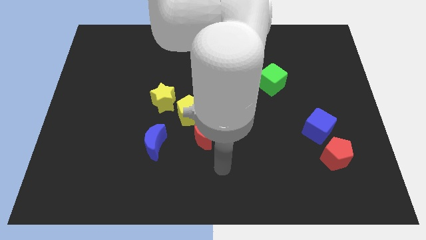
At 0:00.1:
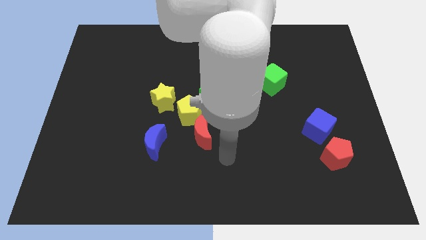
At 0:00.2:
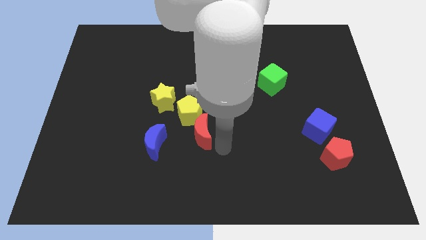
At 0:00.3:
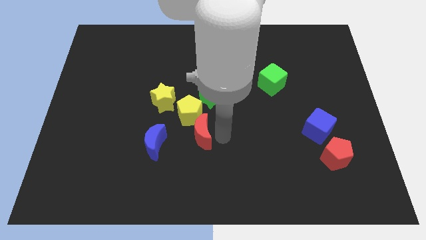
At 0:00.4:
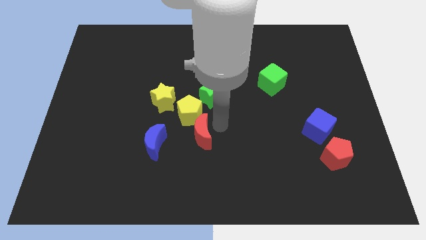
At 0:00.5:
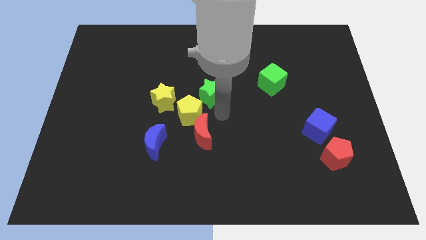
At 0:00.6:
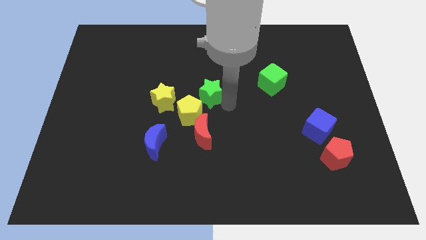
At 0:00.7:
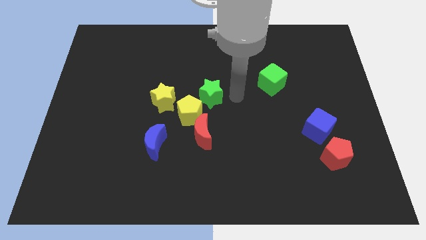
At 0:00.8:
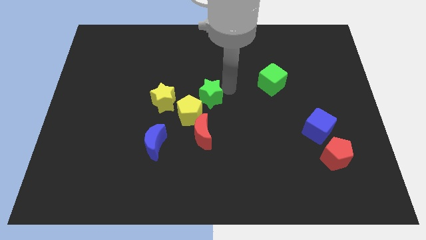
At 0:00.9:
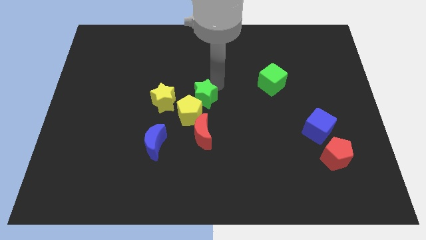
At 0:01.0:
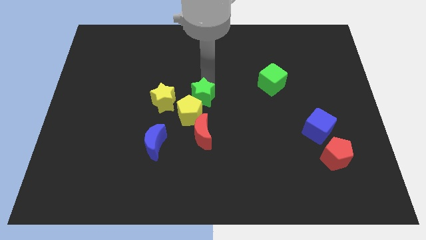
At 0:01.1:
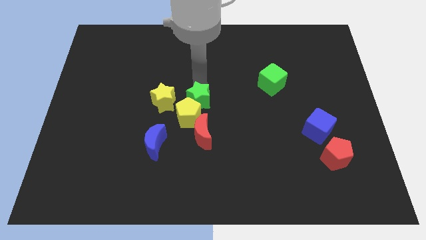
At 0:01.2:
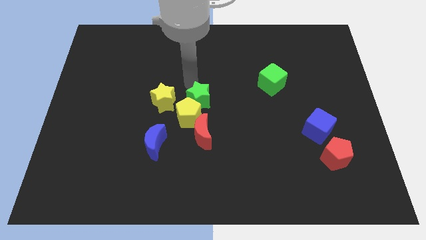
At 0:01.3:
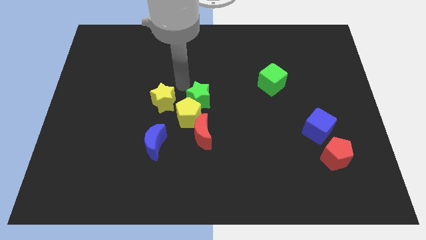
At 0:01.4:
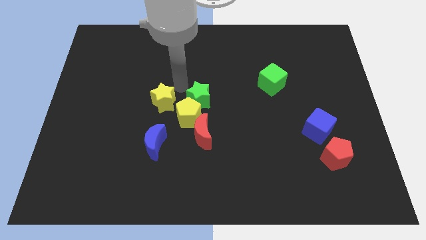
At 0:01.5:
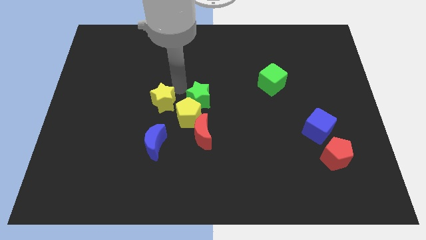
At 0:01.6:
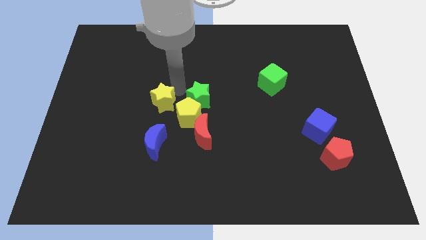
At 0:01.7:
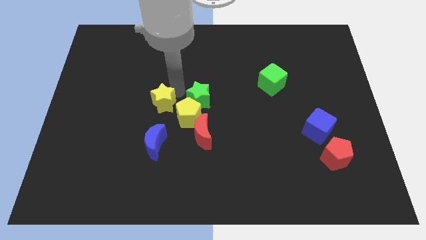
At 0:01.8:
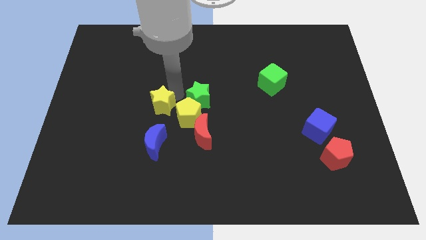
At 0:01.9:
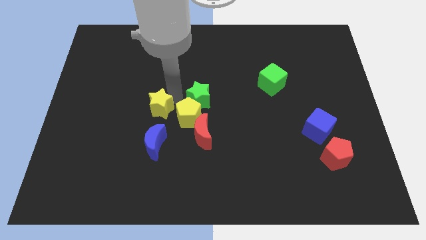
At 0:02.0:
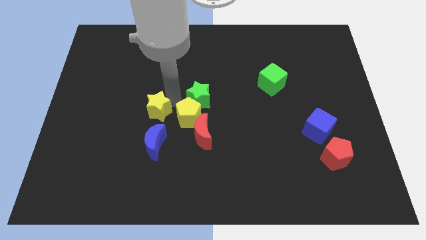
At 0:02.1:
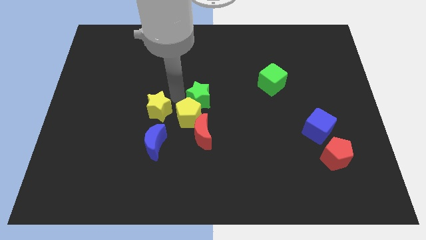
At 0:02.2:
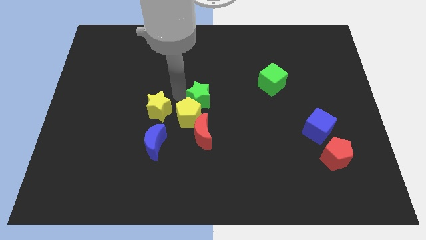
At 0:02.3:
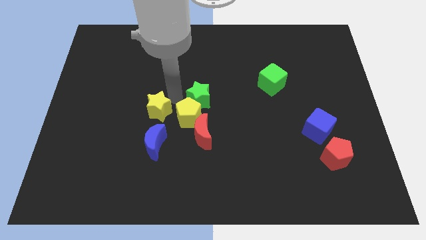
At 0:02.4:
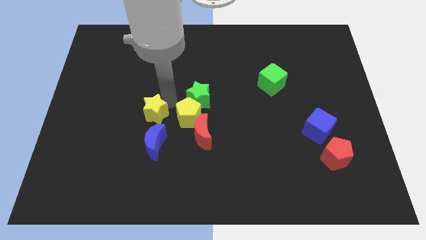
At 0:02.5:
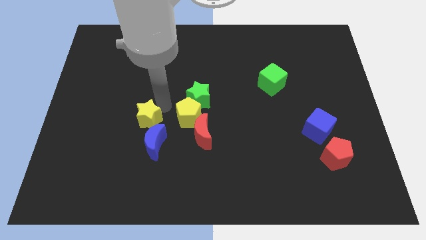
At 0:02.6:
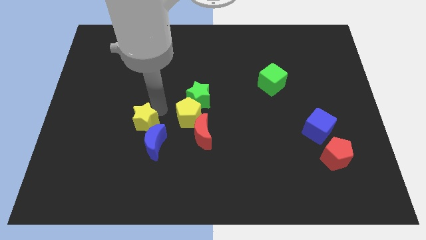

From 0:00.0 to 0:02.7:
slightly slide the yellow star downwards and to the left diagonally

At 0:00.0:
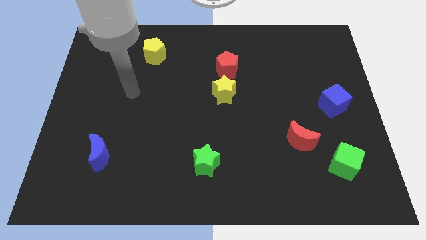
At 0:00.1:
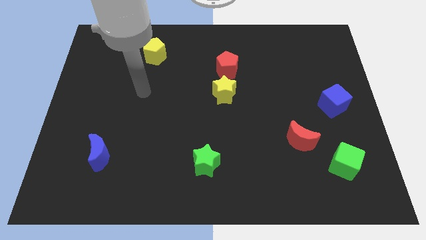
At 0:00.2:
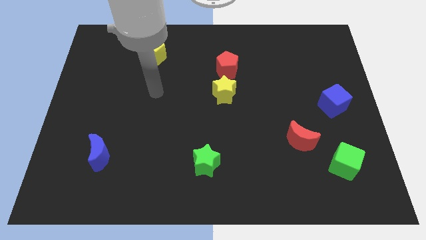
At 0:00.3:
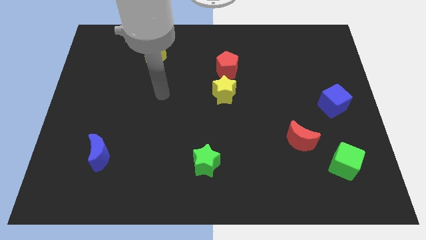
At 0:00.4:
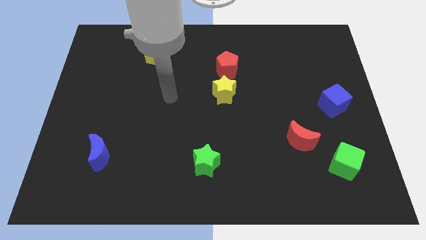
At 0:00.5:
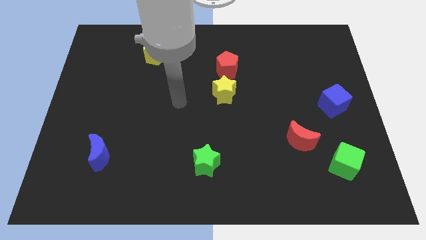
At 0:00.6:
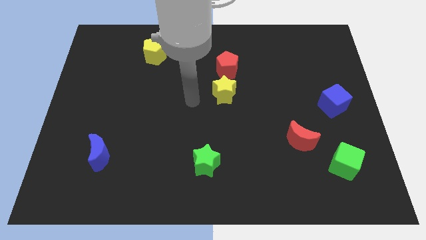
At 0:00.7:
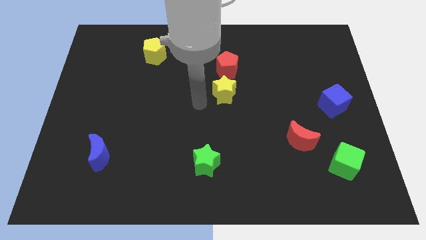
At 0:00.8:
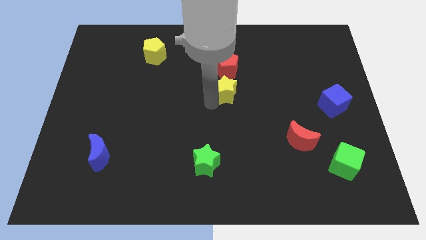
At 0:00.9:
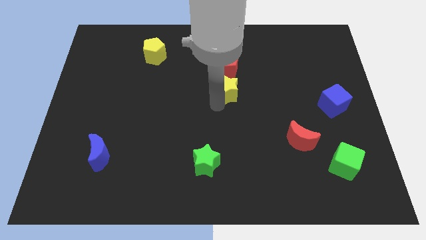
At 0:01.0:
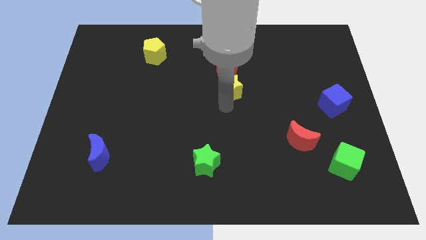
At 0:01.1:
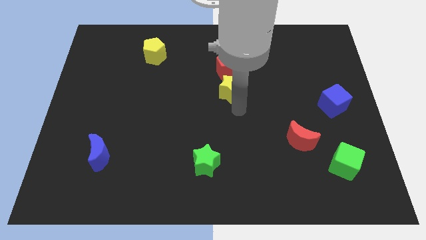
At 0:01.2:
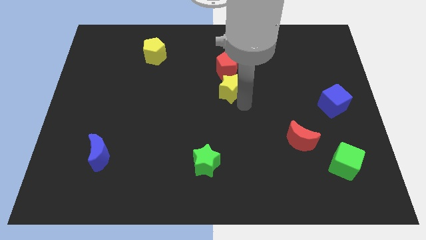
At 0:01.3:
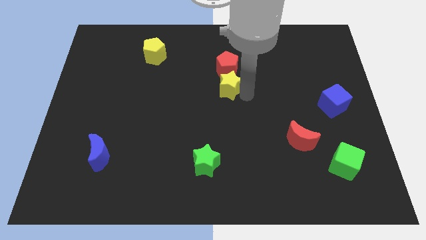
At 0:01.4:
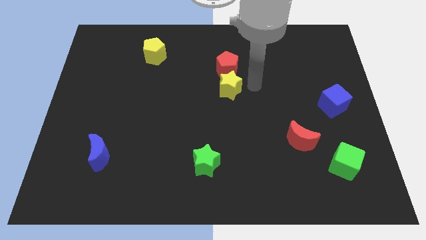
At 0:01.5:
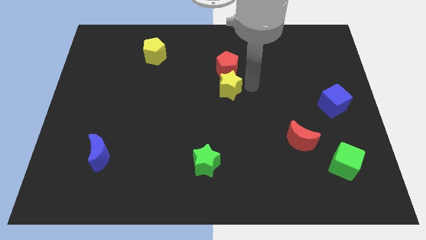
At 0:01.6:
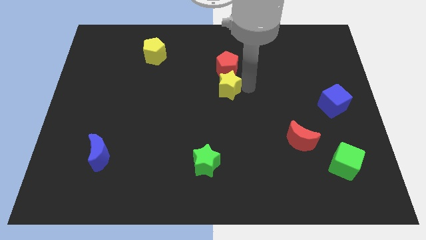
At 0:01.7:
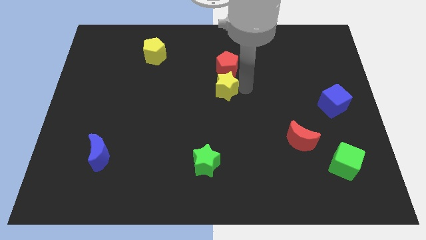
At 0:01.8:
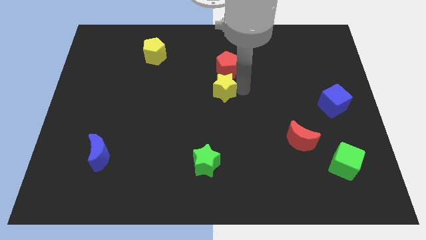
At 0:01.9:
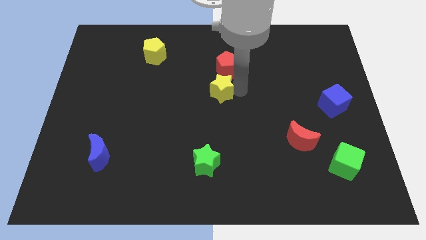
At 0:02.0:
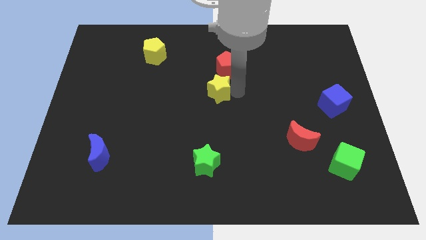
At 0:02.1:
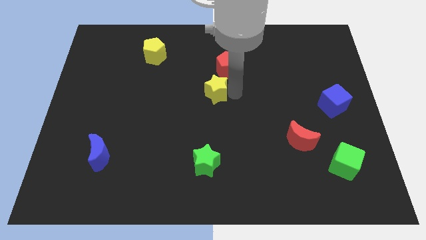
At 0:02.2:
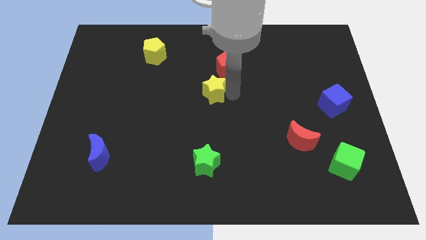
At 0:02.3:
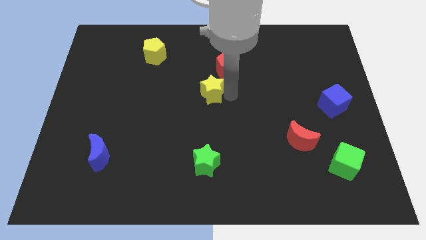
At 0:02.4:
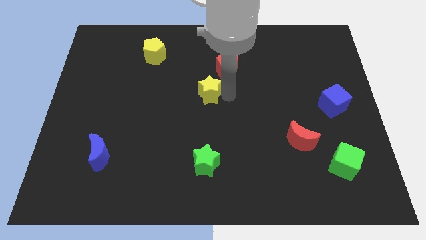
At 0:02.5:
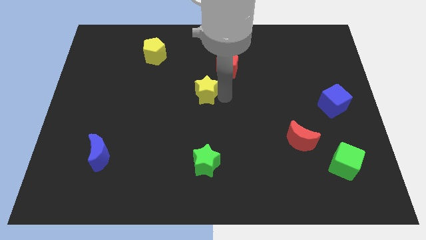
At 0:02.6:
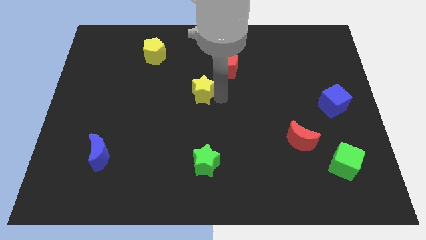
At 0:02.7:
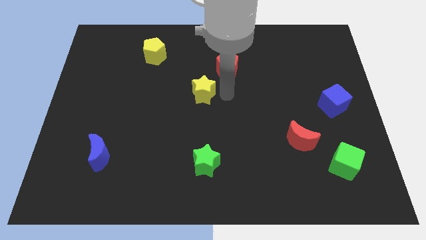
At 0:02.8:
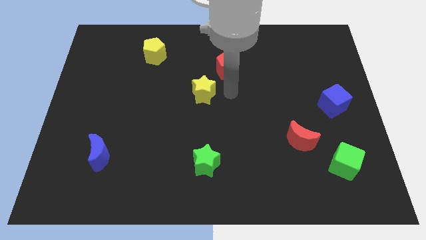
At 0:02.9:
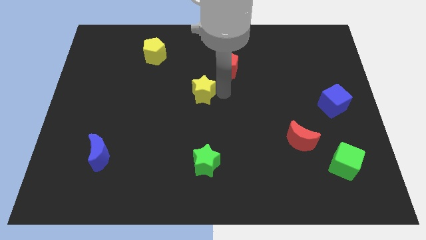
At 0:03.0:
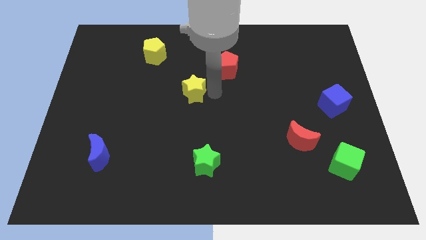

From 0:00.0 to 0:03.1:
push the yellow star a little bit left

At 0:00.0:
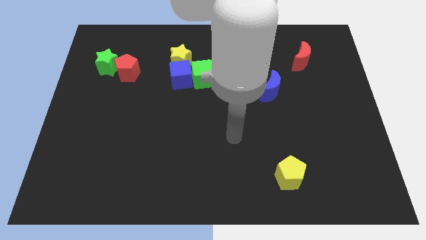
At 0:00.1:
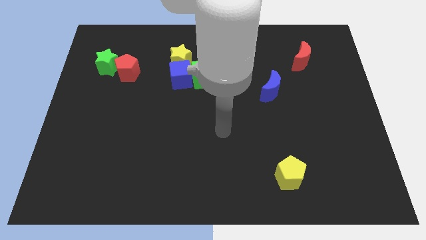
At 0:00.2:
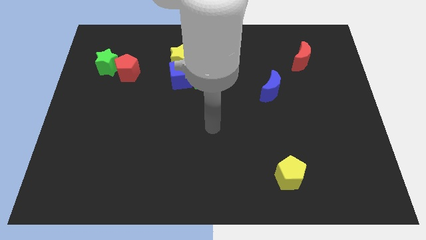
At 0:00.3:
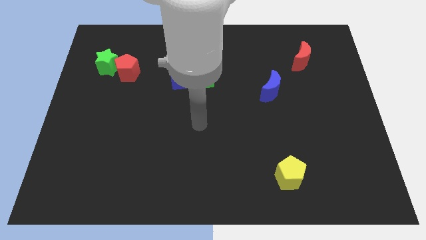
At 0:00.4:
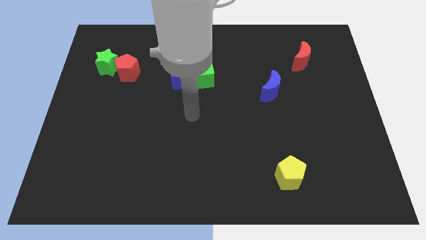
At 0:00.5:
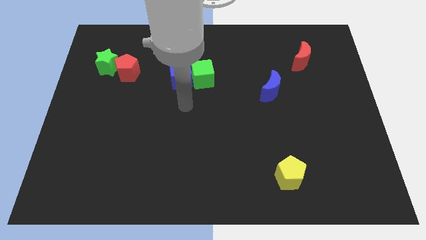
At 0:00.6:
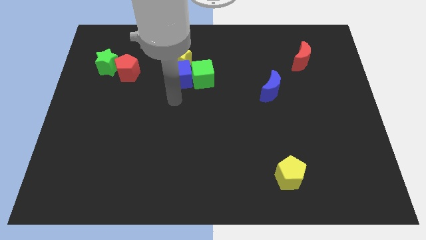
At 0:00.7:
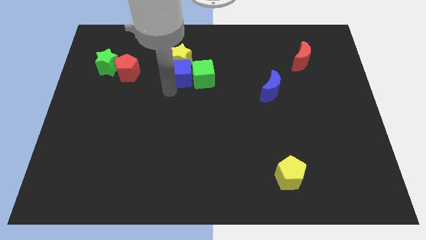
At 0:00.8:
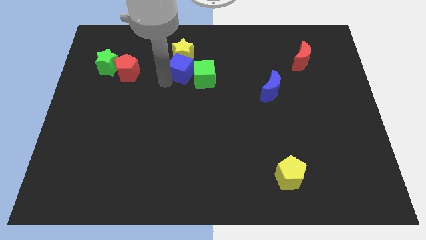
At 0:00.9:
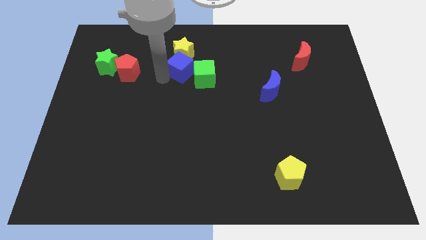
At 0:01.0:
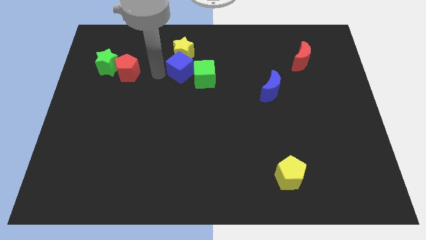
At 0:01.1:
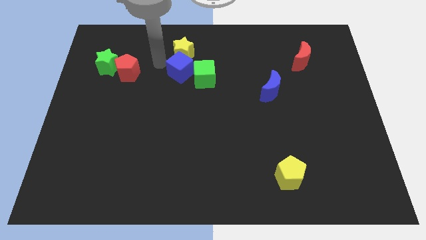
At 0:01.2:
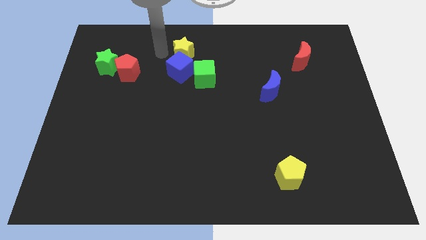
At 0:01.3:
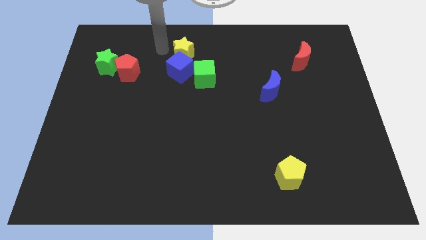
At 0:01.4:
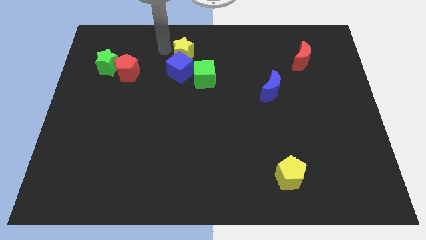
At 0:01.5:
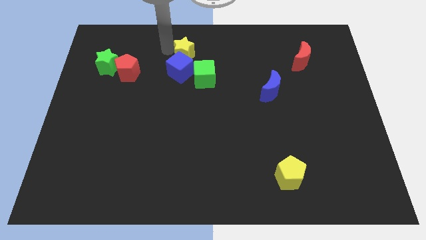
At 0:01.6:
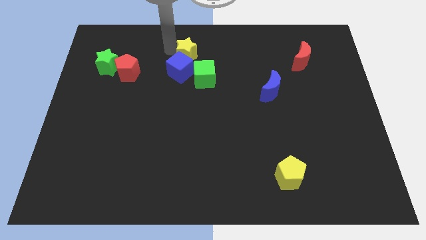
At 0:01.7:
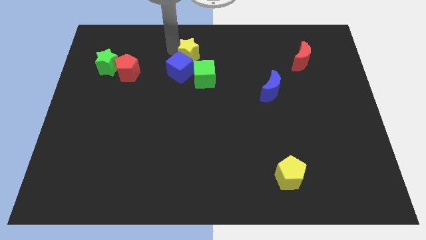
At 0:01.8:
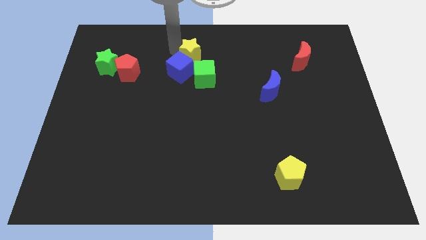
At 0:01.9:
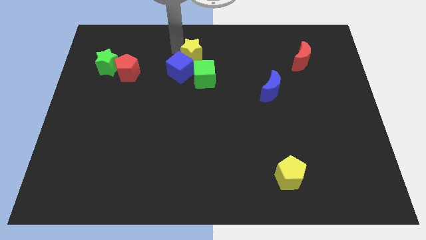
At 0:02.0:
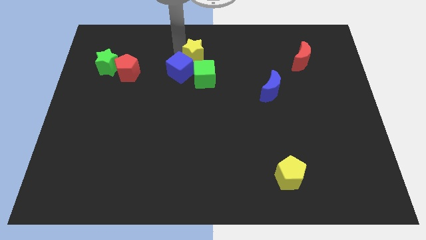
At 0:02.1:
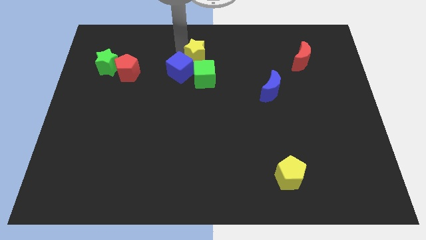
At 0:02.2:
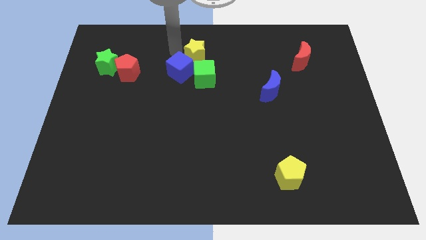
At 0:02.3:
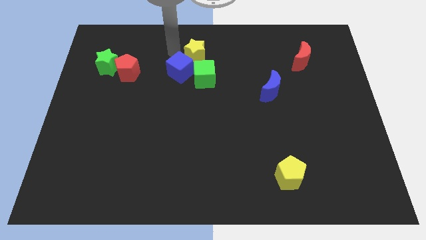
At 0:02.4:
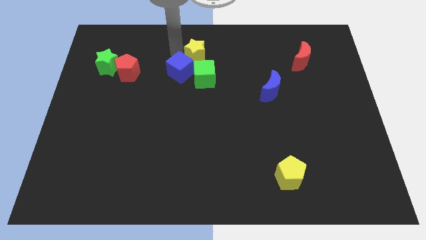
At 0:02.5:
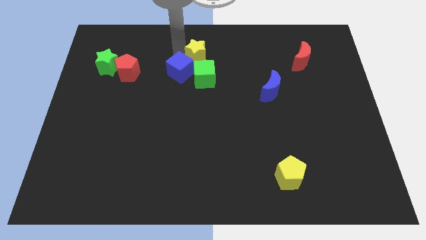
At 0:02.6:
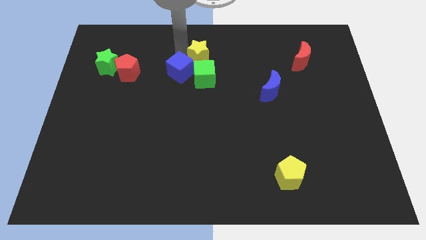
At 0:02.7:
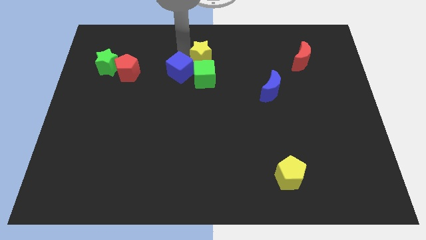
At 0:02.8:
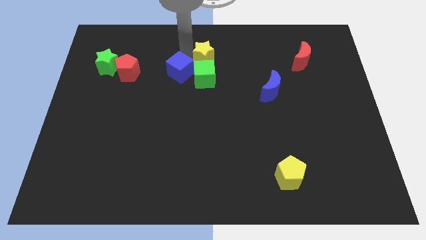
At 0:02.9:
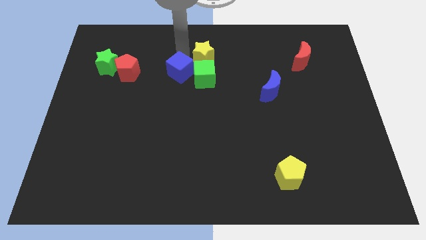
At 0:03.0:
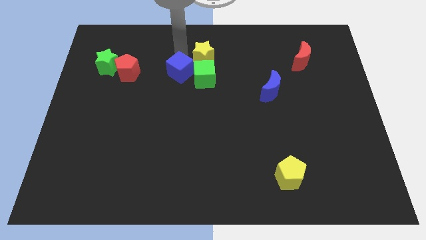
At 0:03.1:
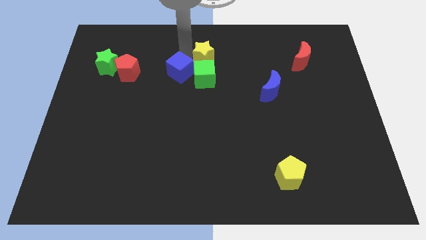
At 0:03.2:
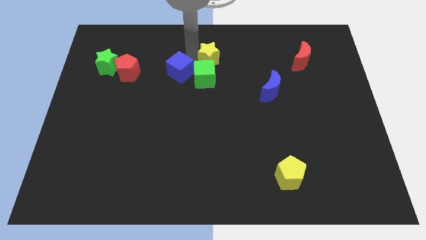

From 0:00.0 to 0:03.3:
push the yellow star to the right a little
